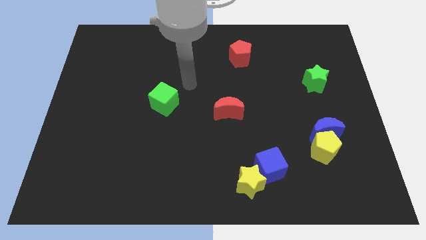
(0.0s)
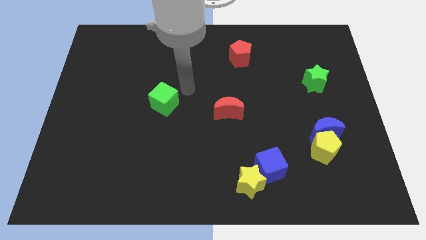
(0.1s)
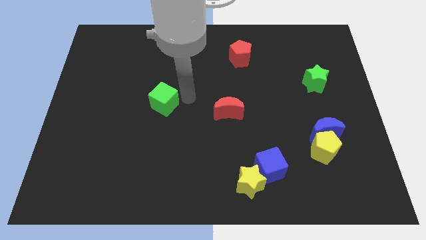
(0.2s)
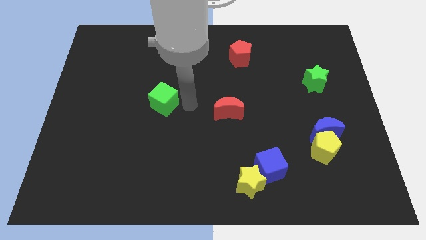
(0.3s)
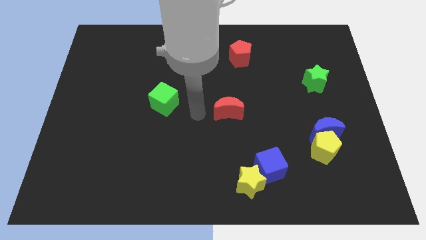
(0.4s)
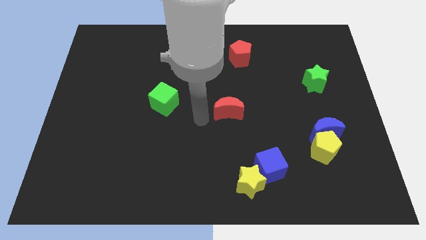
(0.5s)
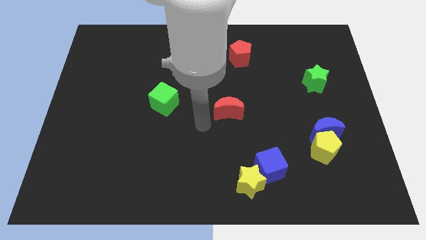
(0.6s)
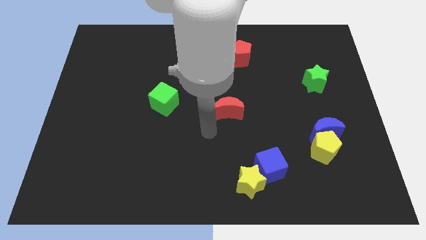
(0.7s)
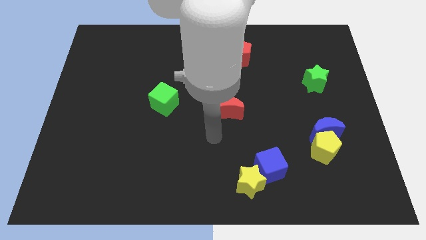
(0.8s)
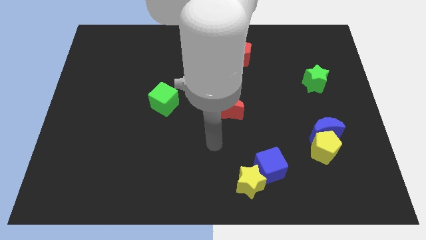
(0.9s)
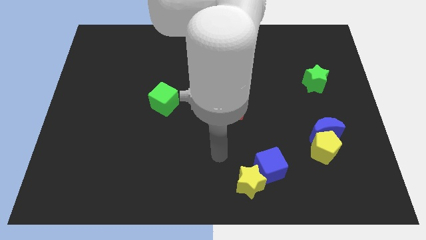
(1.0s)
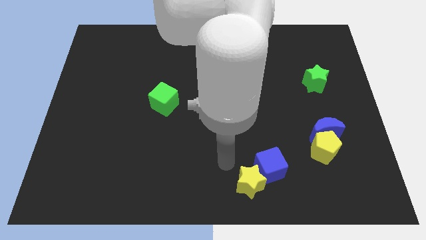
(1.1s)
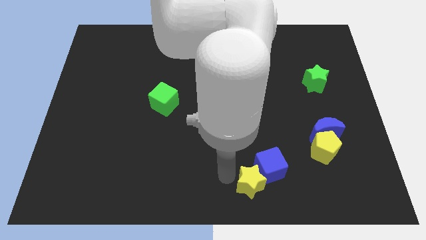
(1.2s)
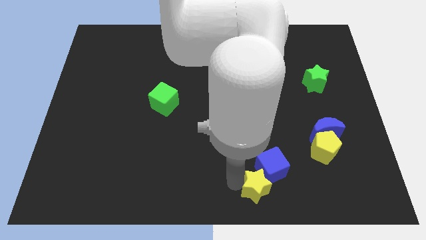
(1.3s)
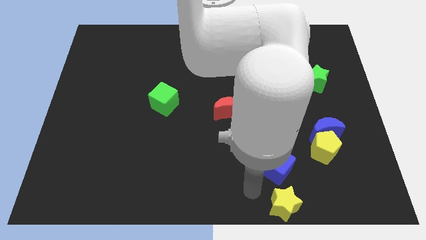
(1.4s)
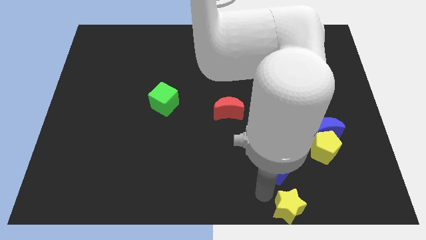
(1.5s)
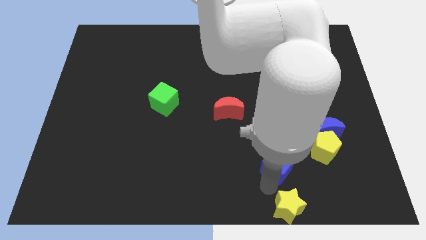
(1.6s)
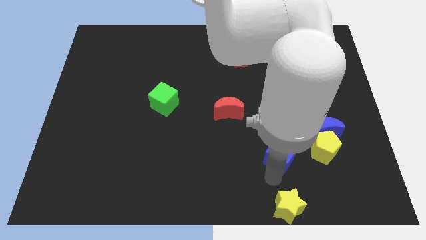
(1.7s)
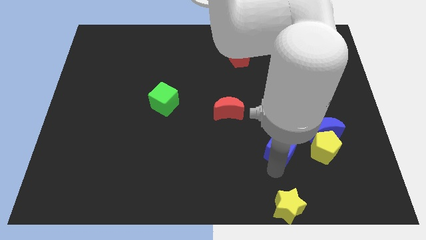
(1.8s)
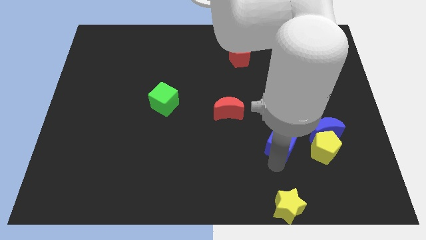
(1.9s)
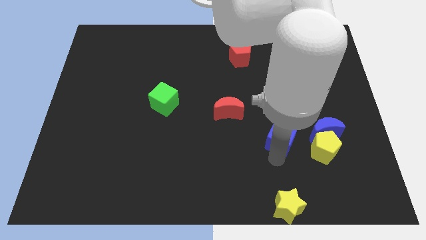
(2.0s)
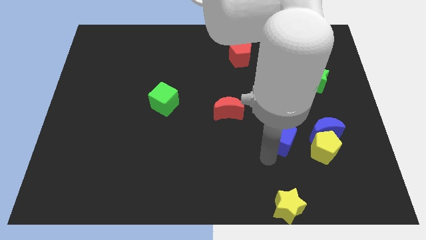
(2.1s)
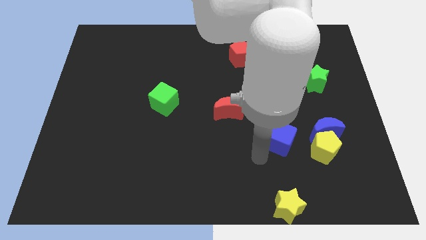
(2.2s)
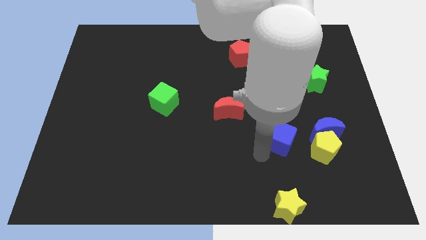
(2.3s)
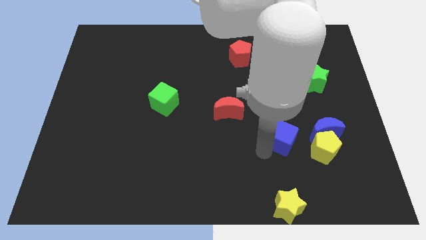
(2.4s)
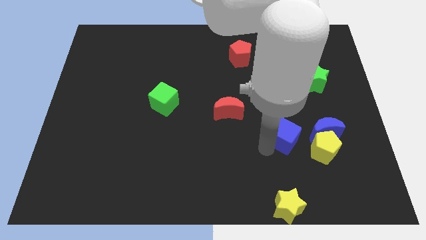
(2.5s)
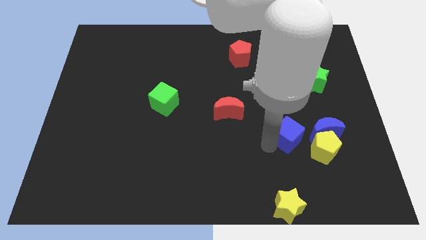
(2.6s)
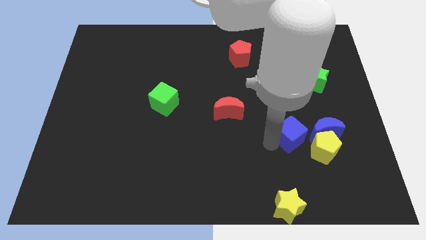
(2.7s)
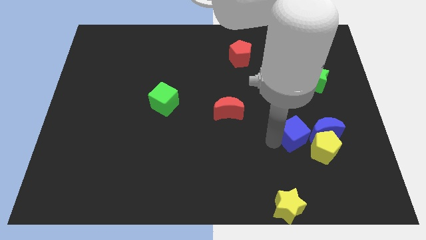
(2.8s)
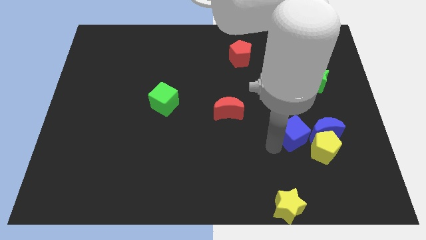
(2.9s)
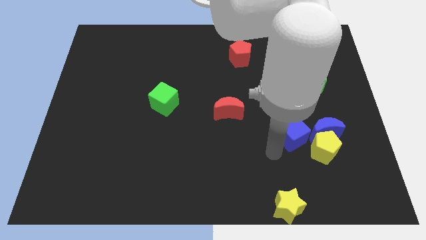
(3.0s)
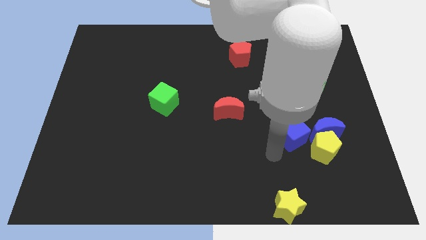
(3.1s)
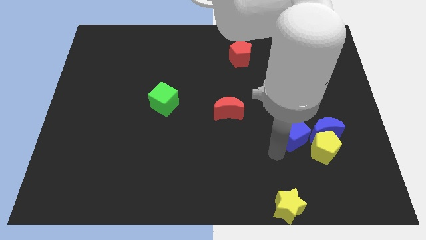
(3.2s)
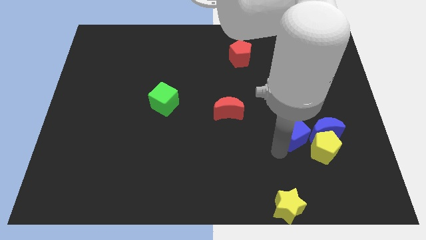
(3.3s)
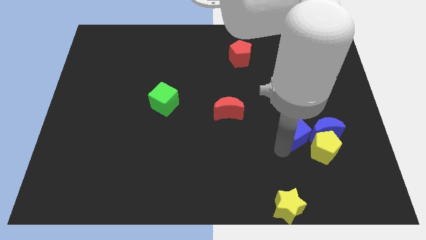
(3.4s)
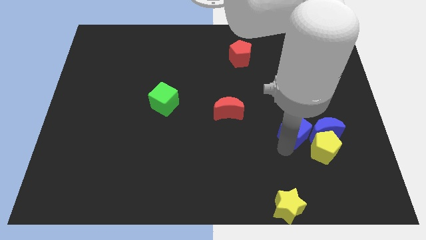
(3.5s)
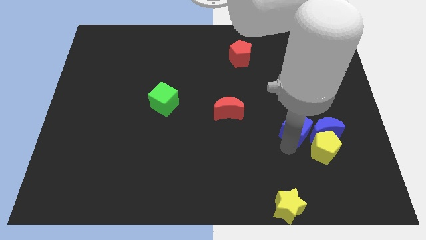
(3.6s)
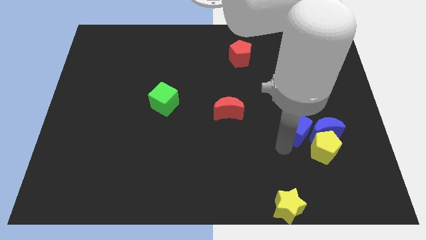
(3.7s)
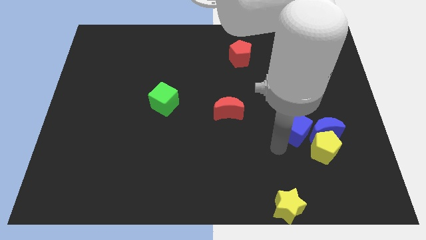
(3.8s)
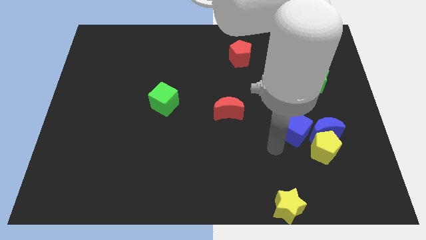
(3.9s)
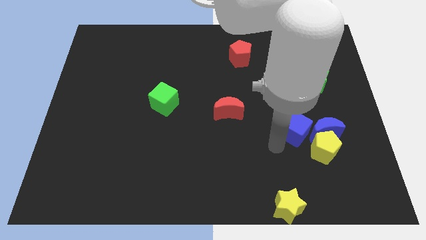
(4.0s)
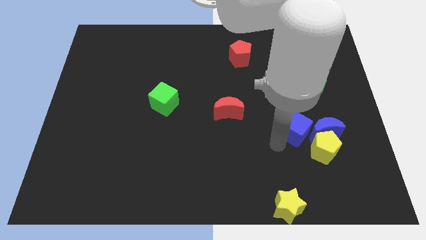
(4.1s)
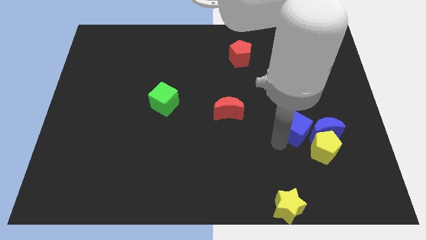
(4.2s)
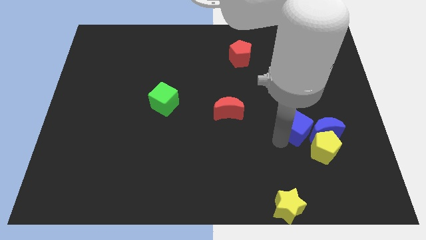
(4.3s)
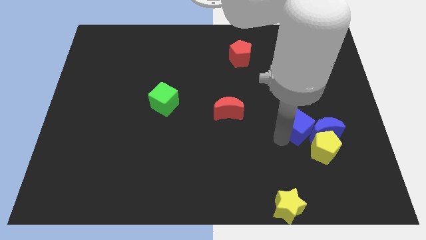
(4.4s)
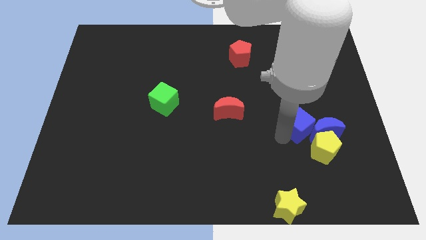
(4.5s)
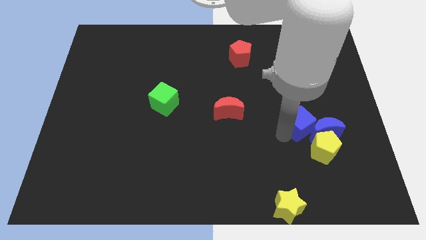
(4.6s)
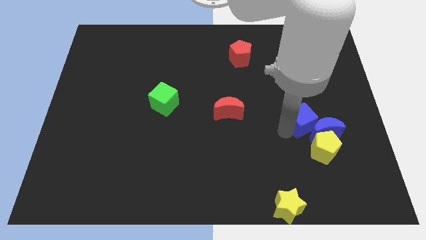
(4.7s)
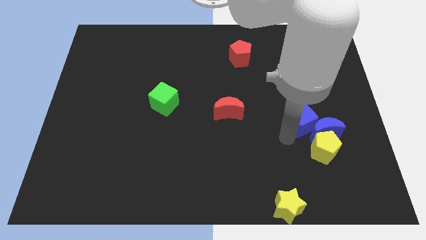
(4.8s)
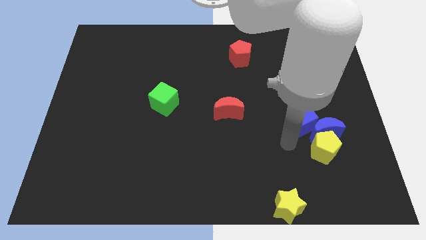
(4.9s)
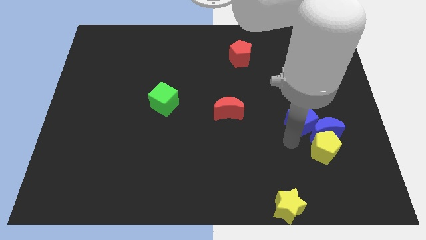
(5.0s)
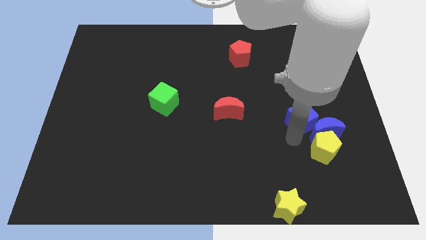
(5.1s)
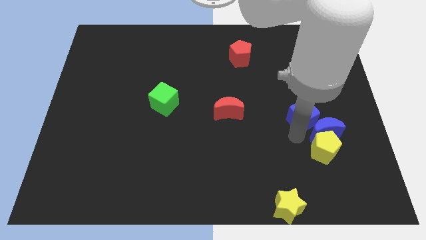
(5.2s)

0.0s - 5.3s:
move the blue cube above the blue moon

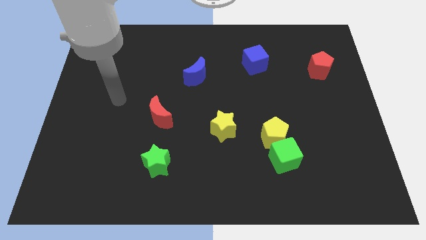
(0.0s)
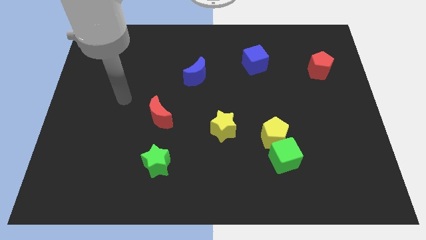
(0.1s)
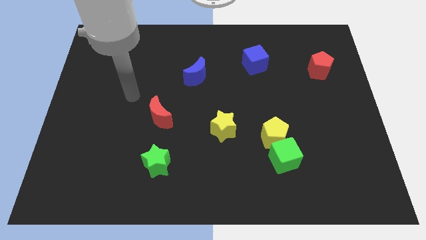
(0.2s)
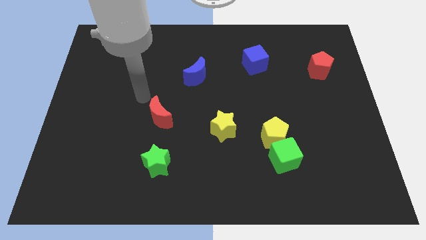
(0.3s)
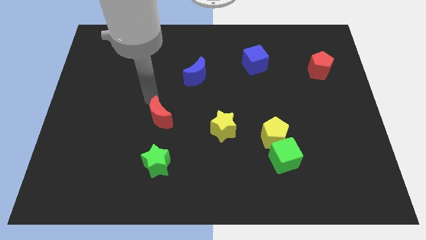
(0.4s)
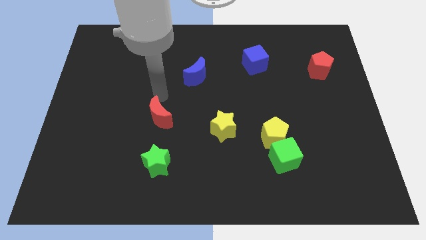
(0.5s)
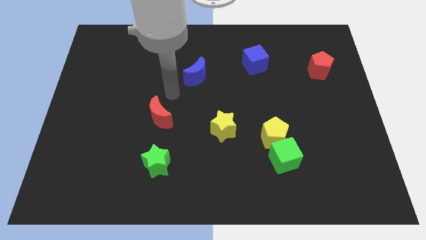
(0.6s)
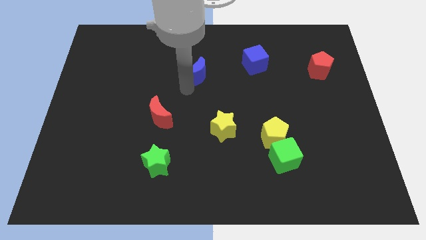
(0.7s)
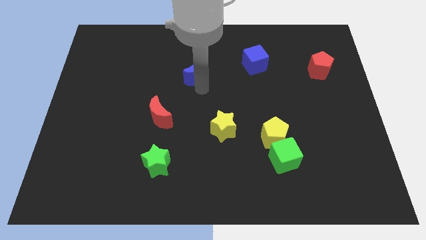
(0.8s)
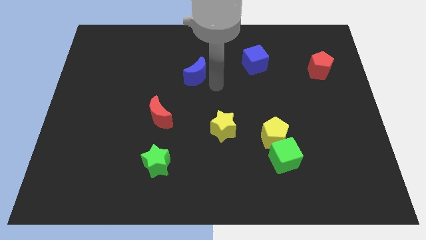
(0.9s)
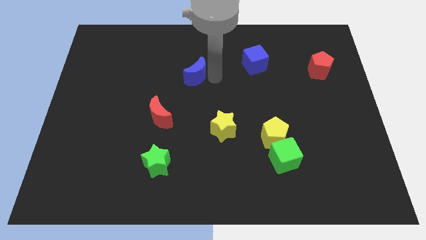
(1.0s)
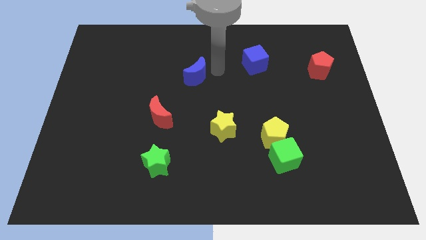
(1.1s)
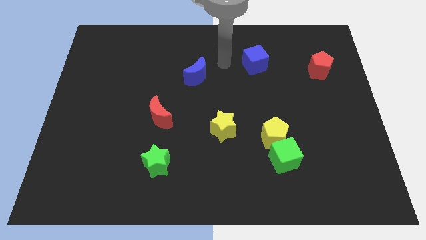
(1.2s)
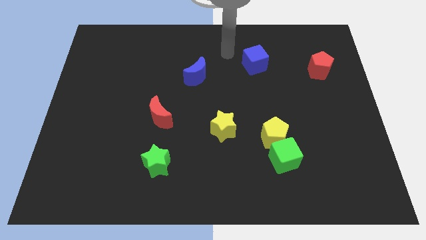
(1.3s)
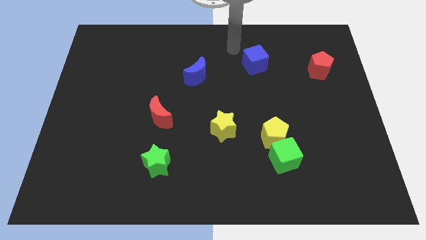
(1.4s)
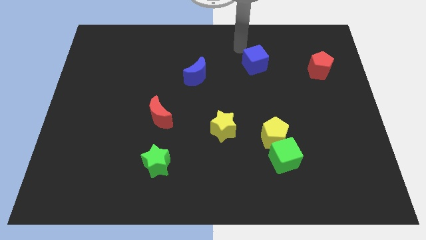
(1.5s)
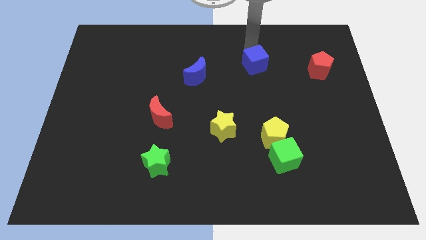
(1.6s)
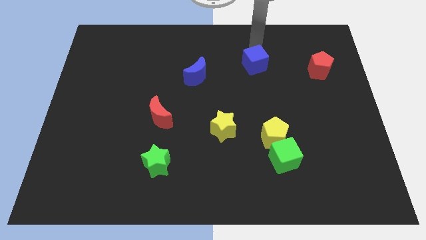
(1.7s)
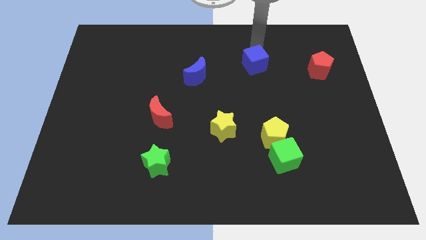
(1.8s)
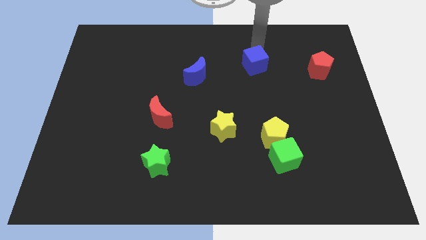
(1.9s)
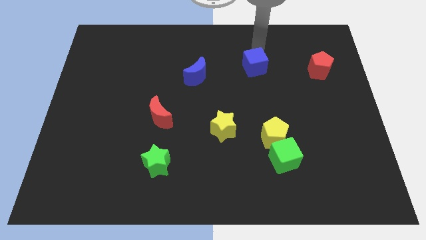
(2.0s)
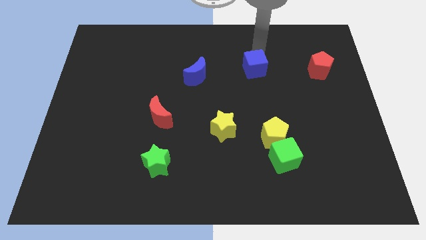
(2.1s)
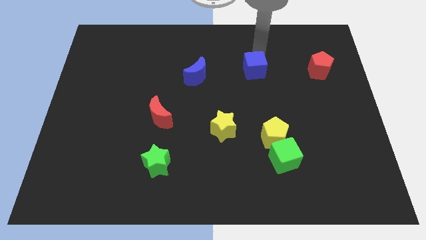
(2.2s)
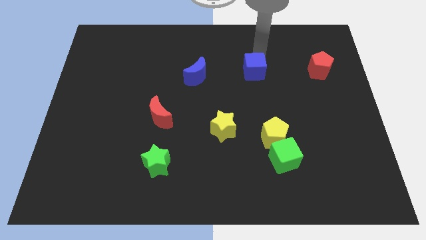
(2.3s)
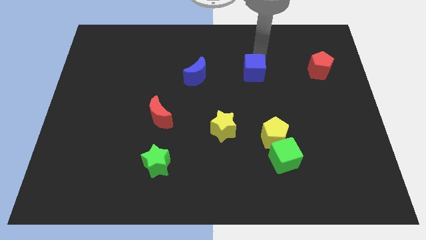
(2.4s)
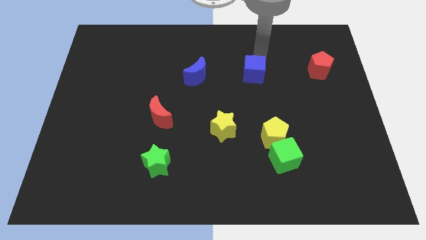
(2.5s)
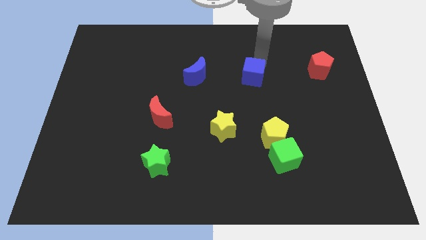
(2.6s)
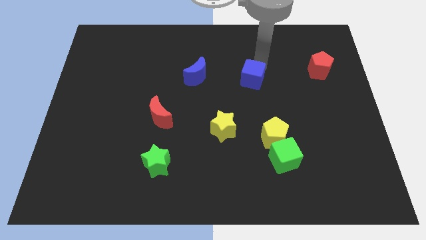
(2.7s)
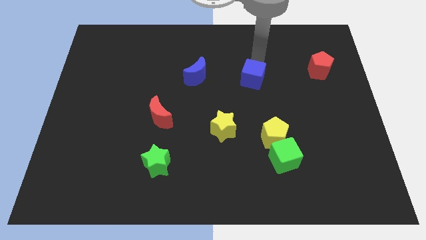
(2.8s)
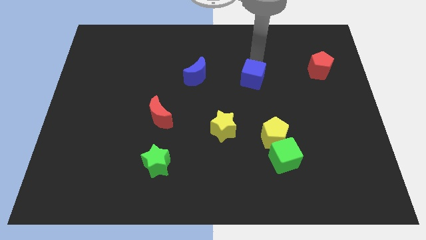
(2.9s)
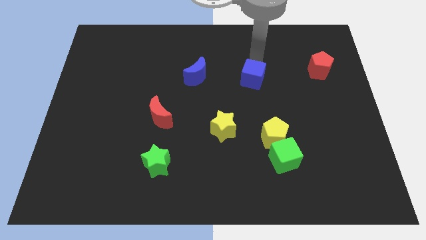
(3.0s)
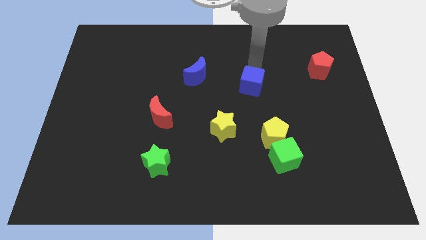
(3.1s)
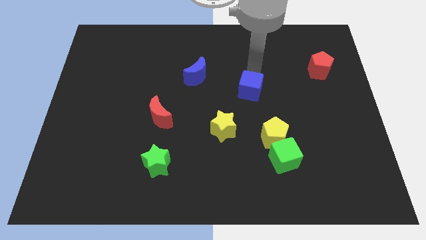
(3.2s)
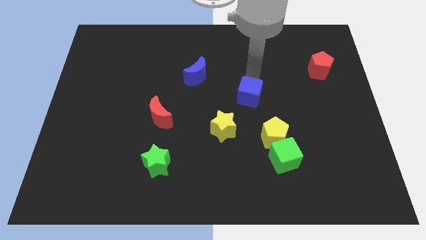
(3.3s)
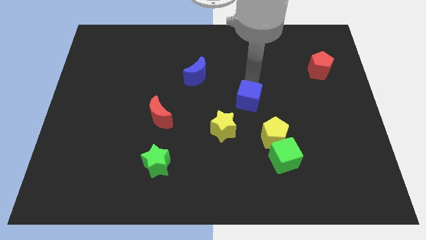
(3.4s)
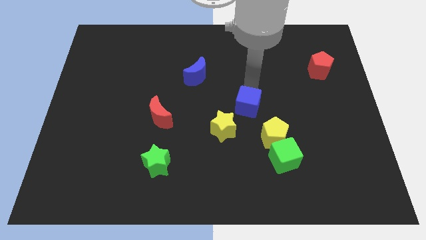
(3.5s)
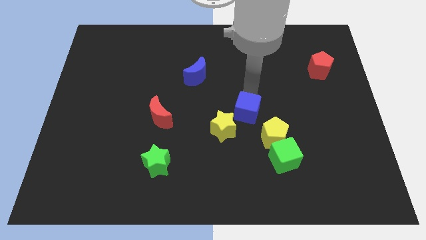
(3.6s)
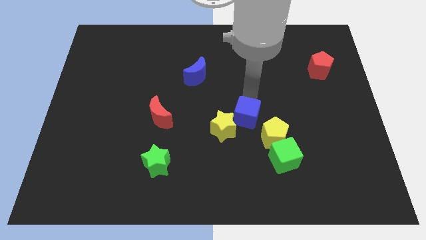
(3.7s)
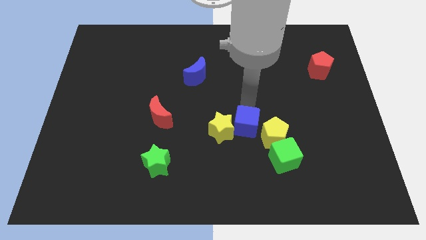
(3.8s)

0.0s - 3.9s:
move the blue cube to the bottom right of the yellow star
